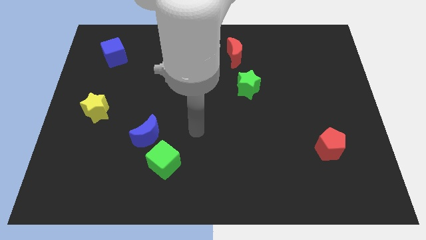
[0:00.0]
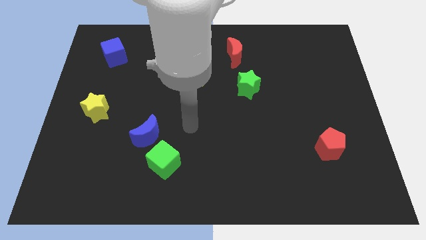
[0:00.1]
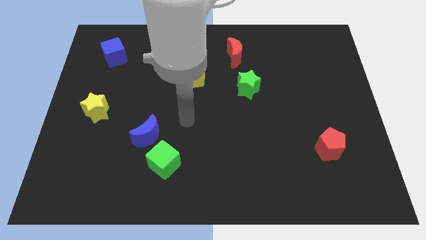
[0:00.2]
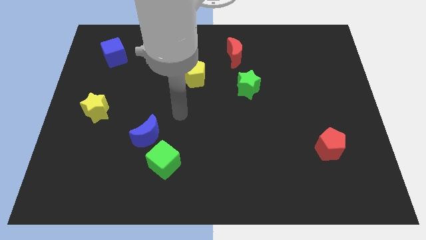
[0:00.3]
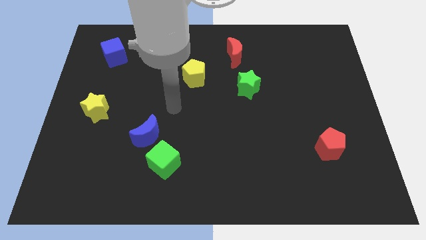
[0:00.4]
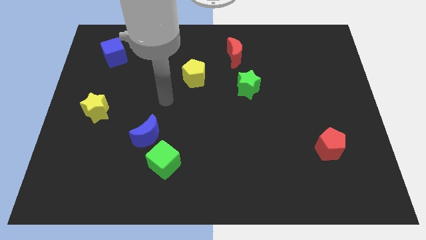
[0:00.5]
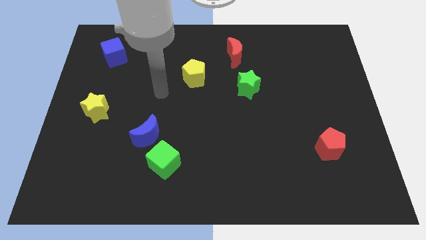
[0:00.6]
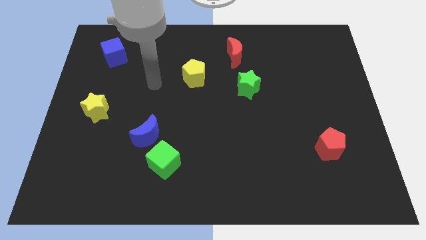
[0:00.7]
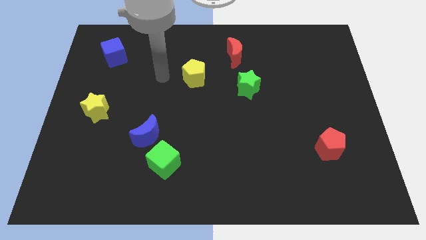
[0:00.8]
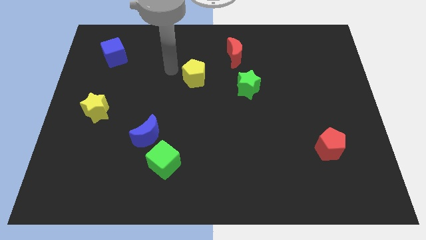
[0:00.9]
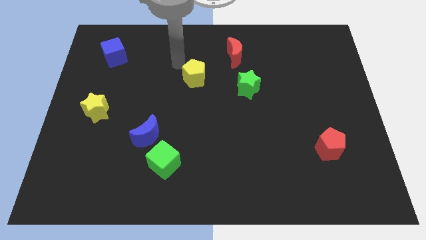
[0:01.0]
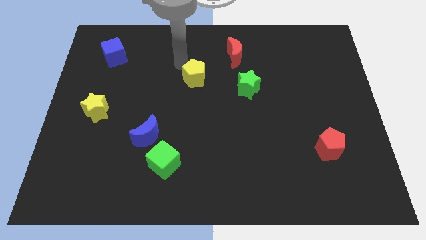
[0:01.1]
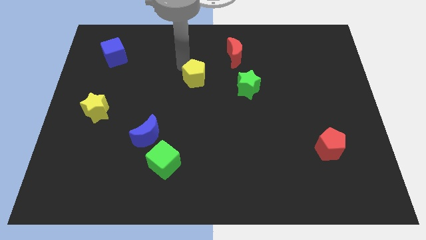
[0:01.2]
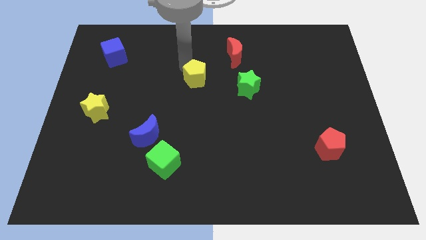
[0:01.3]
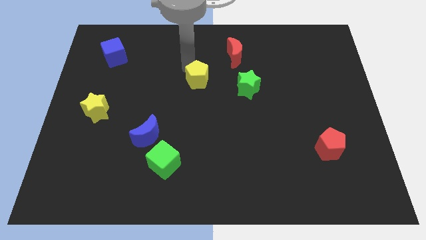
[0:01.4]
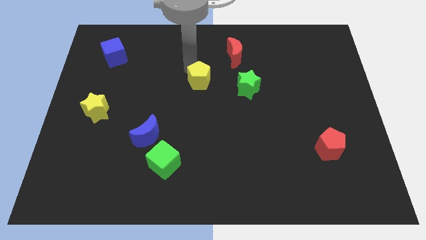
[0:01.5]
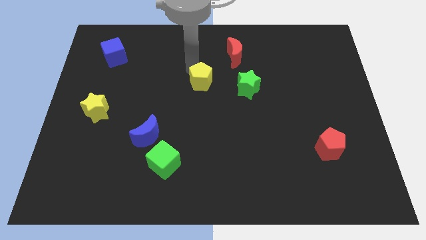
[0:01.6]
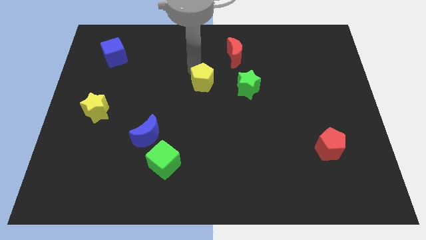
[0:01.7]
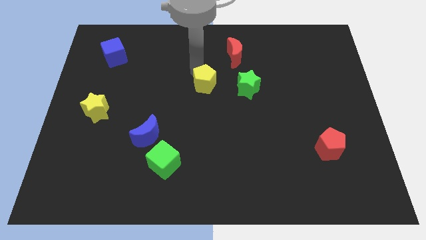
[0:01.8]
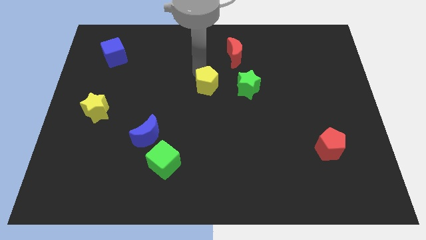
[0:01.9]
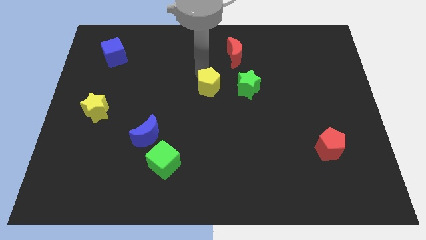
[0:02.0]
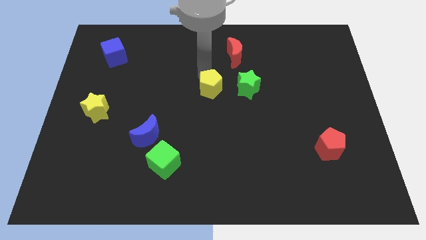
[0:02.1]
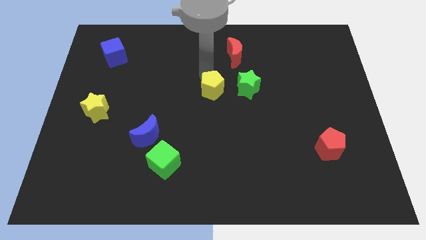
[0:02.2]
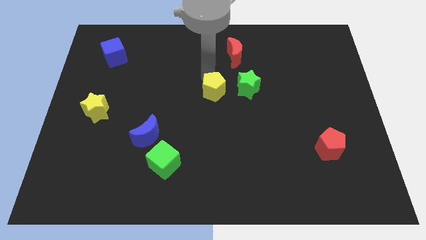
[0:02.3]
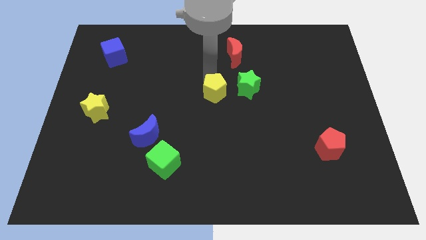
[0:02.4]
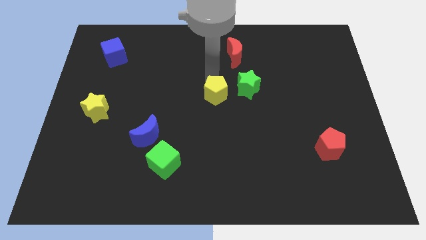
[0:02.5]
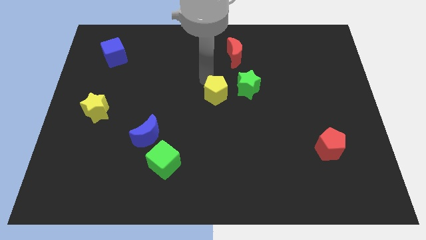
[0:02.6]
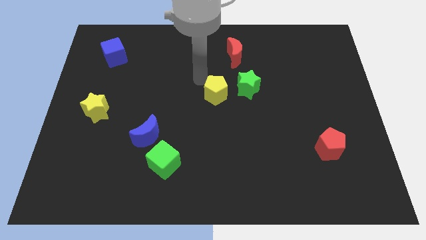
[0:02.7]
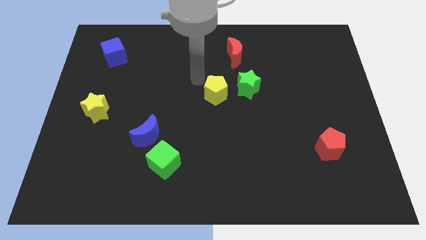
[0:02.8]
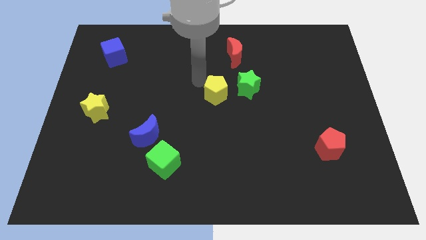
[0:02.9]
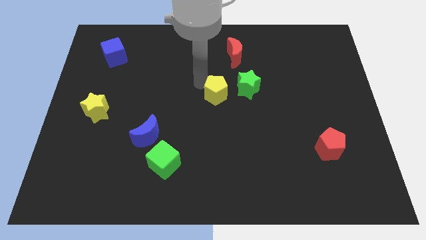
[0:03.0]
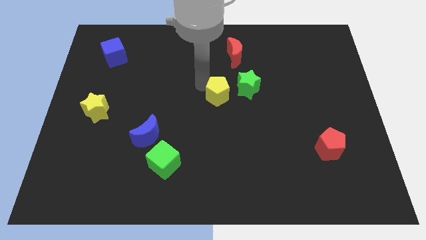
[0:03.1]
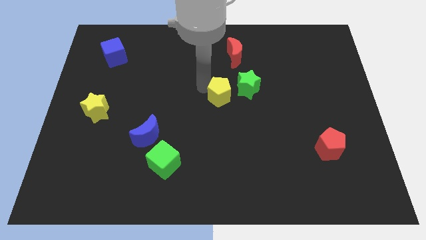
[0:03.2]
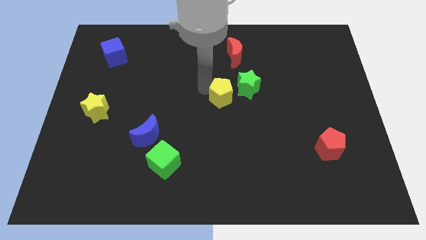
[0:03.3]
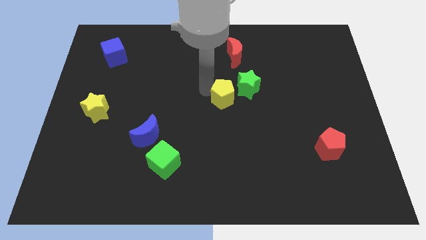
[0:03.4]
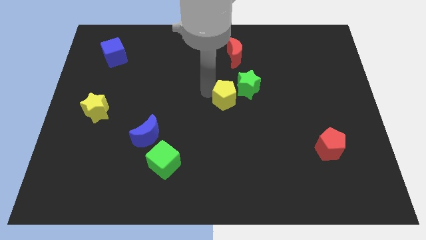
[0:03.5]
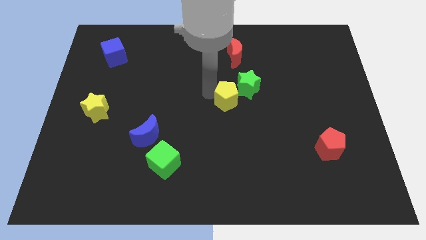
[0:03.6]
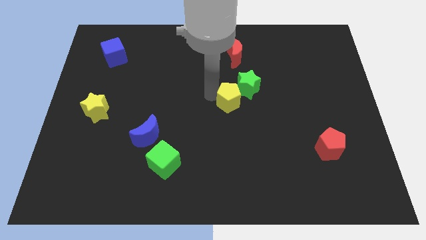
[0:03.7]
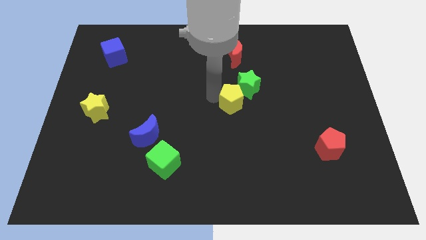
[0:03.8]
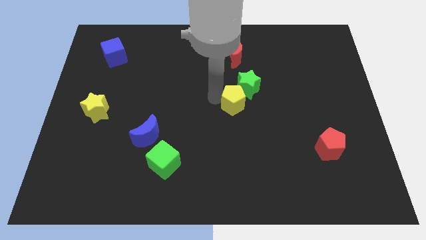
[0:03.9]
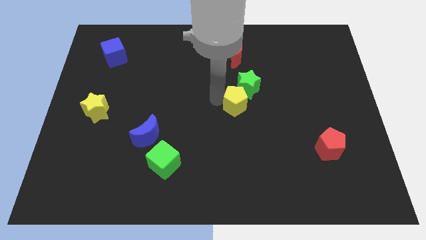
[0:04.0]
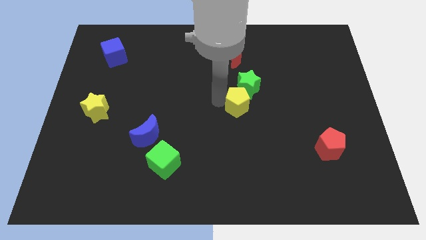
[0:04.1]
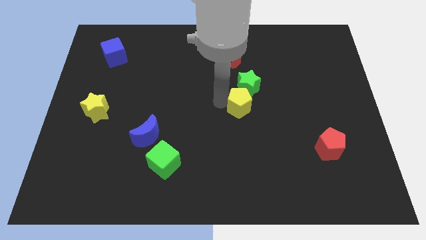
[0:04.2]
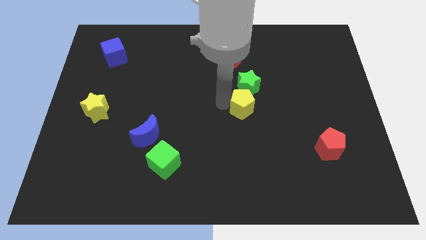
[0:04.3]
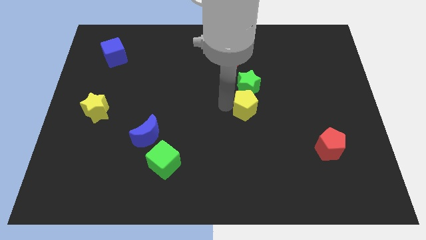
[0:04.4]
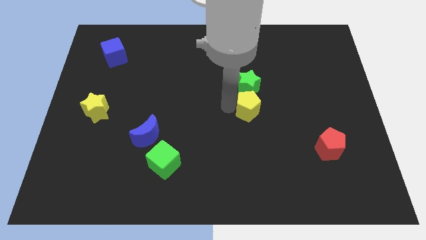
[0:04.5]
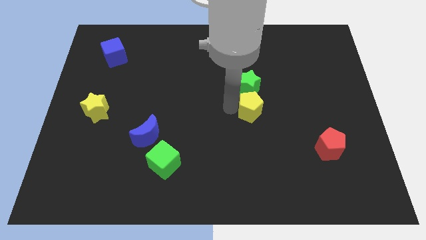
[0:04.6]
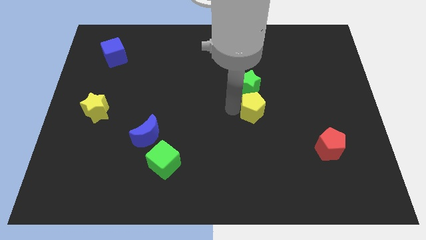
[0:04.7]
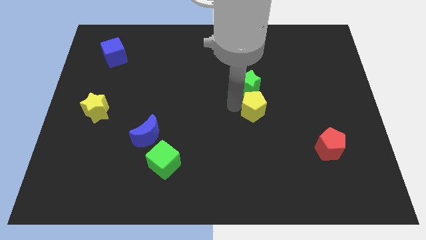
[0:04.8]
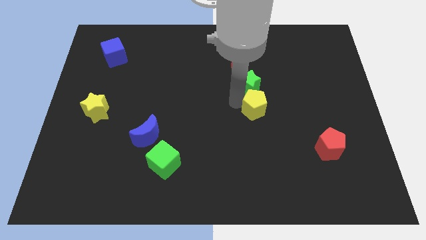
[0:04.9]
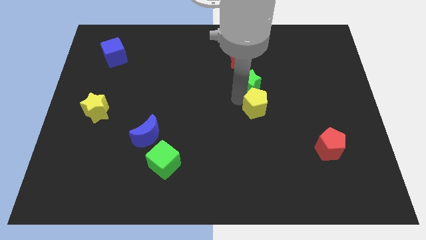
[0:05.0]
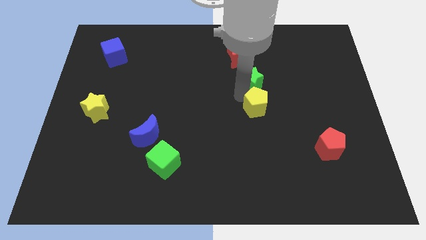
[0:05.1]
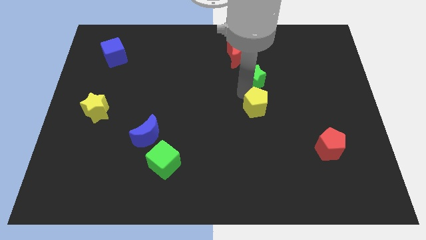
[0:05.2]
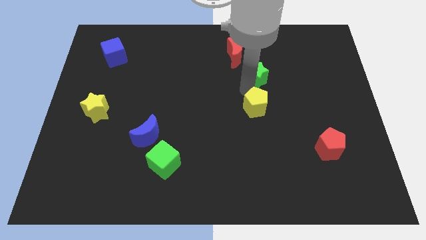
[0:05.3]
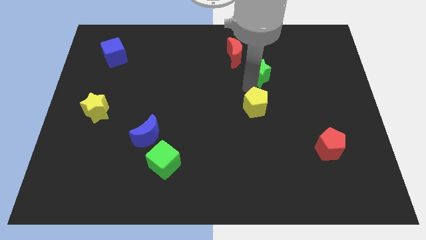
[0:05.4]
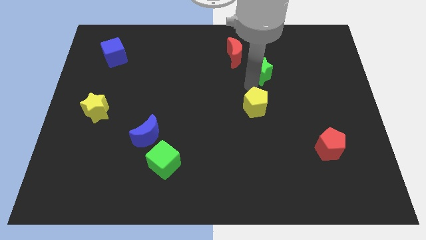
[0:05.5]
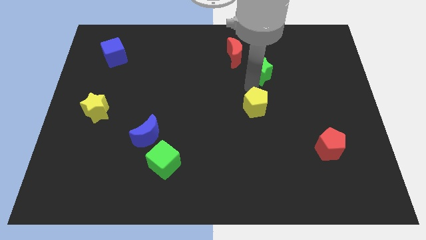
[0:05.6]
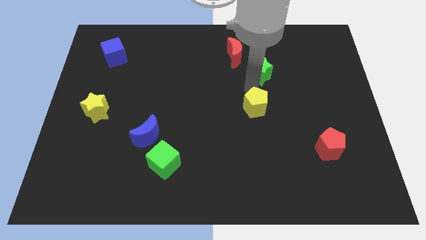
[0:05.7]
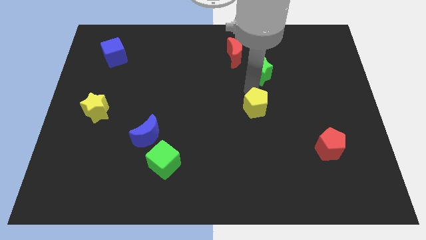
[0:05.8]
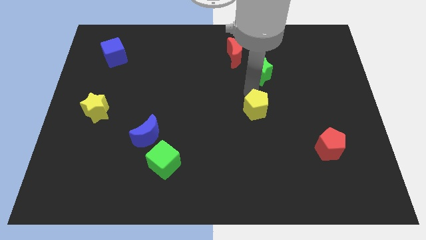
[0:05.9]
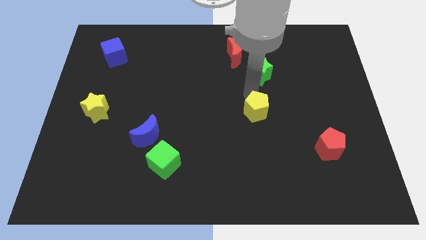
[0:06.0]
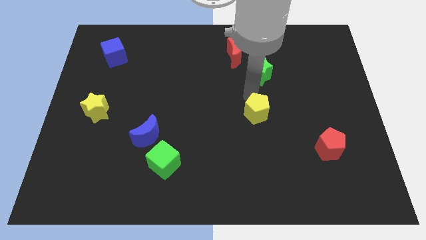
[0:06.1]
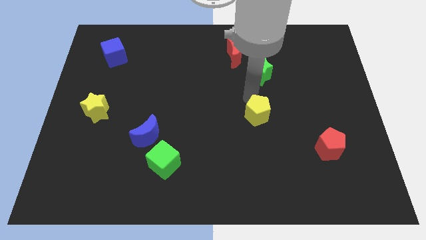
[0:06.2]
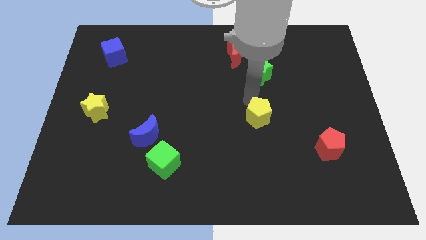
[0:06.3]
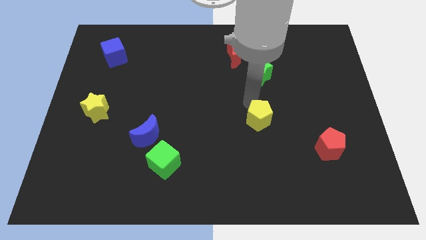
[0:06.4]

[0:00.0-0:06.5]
slide the yellow pentagon downwards and then to the right

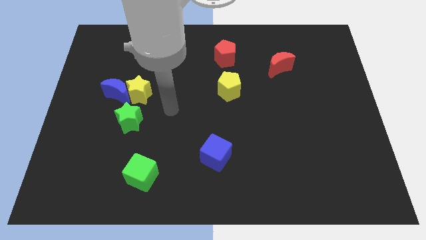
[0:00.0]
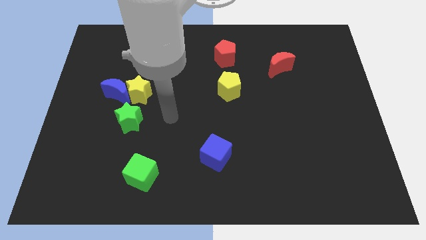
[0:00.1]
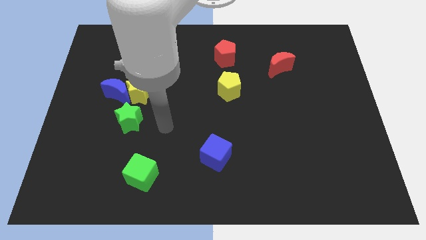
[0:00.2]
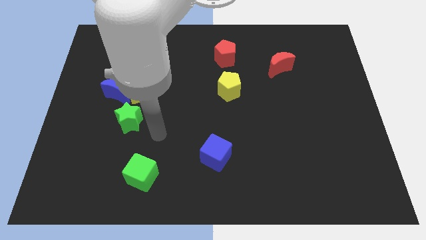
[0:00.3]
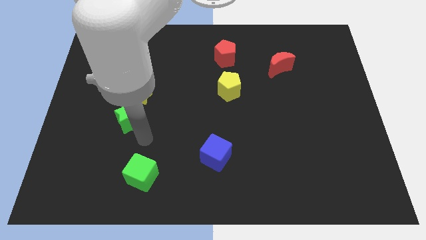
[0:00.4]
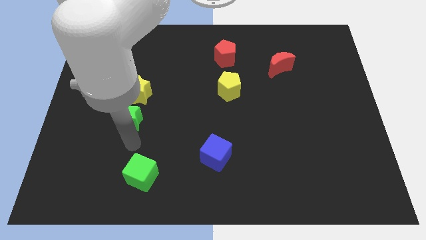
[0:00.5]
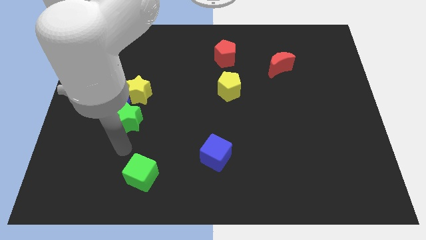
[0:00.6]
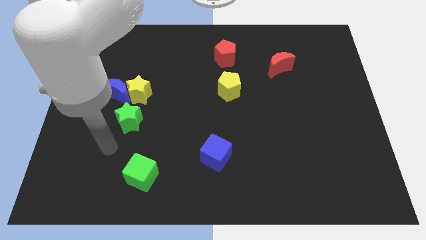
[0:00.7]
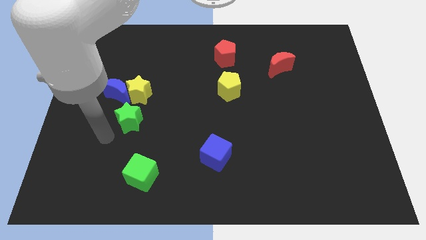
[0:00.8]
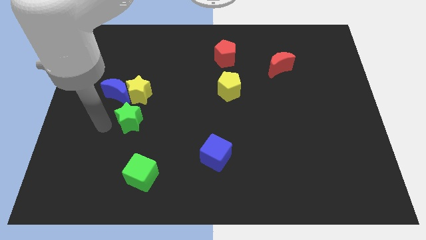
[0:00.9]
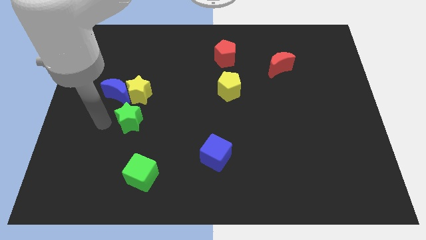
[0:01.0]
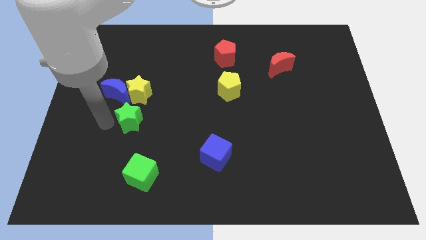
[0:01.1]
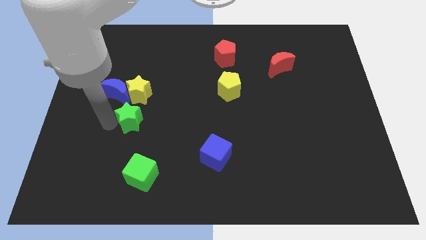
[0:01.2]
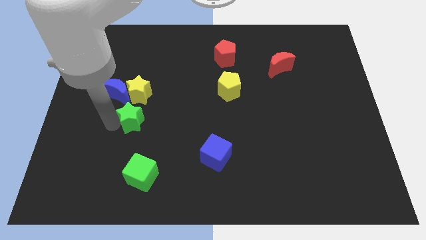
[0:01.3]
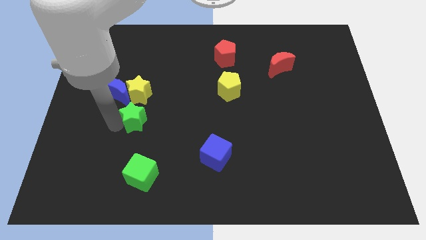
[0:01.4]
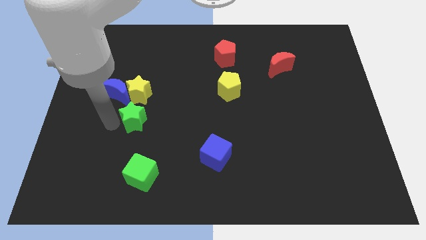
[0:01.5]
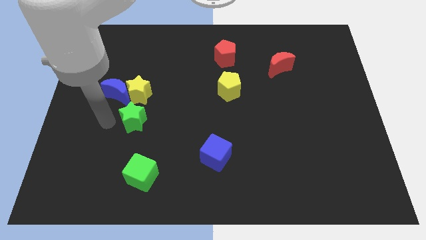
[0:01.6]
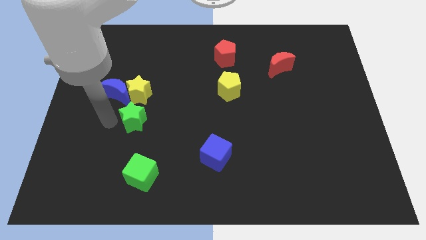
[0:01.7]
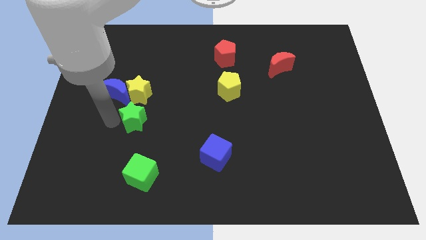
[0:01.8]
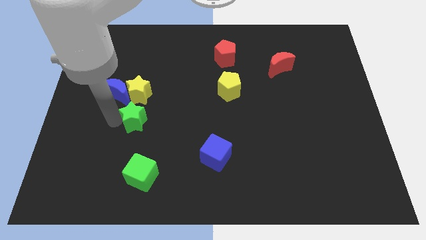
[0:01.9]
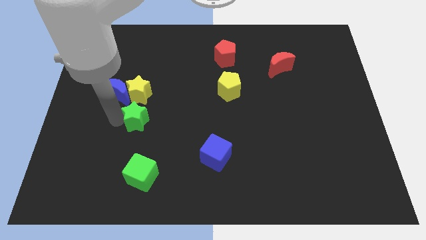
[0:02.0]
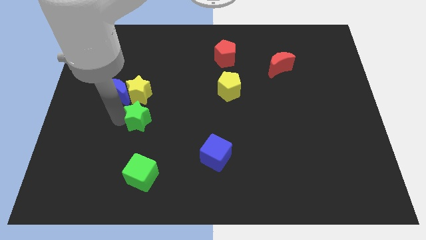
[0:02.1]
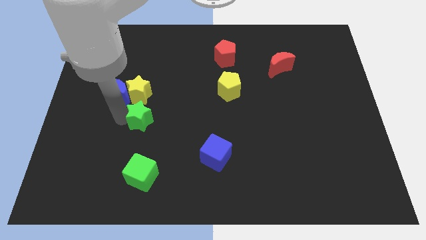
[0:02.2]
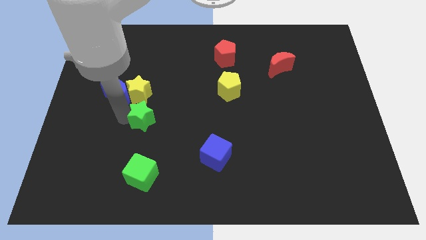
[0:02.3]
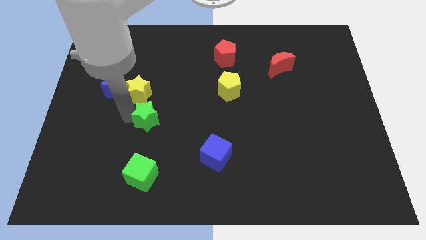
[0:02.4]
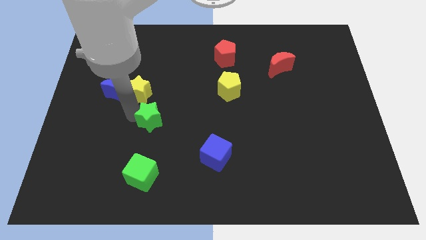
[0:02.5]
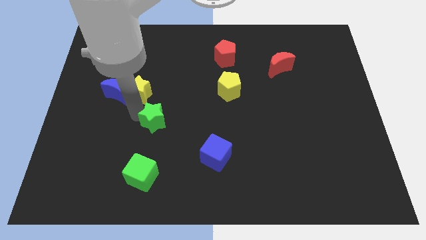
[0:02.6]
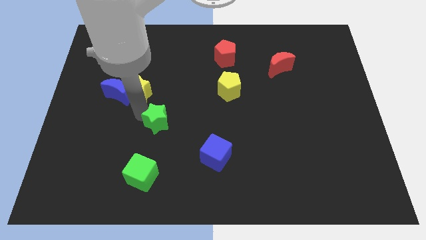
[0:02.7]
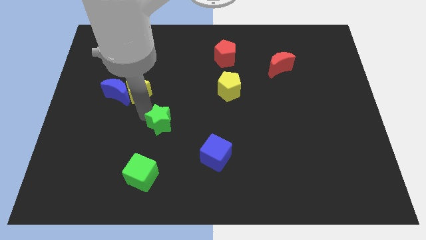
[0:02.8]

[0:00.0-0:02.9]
slightly move the green star right
